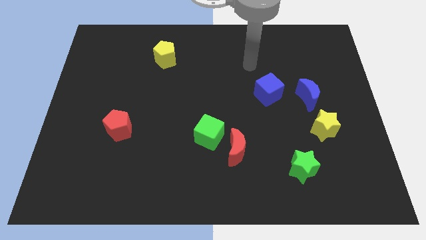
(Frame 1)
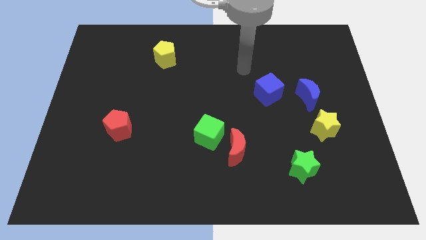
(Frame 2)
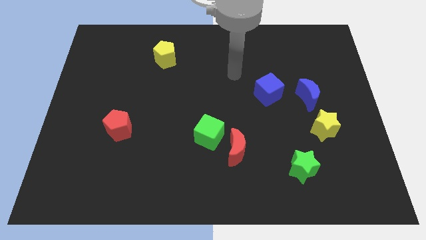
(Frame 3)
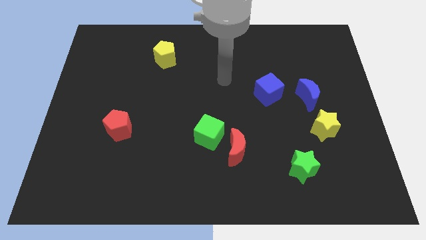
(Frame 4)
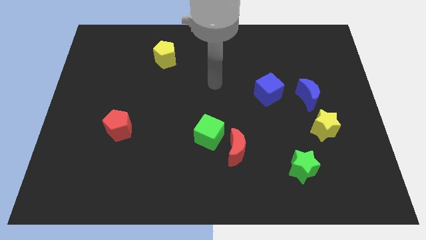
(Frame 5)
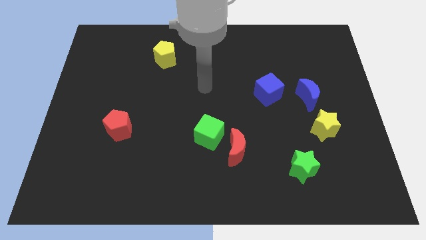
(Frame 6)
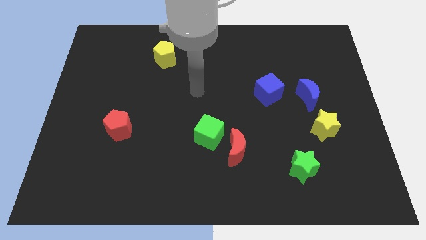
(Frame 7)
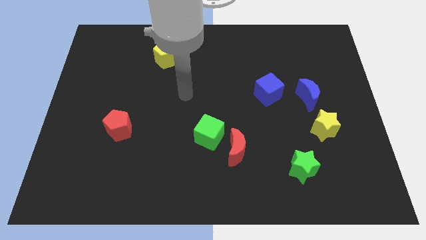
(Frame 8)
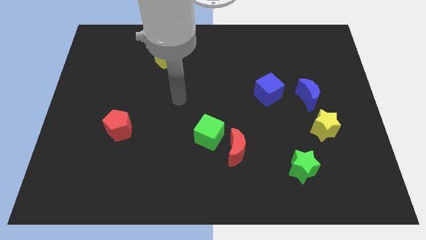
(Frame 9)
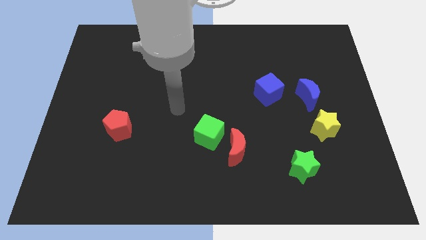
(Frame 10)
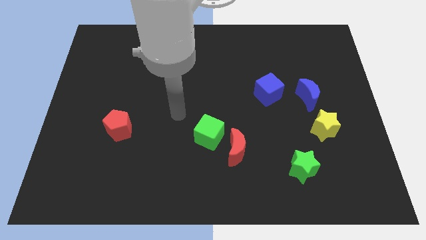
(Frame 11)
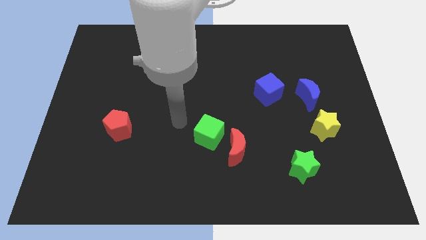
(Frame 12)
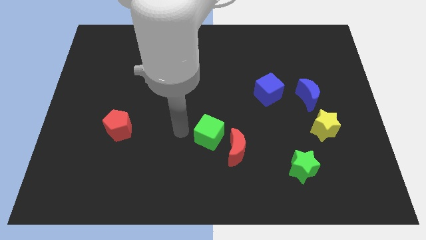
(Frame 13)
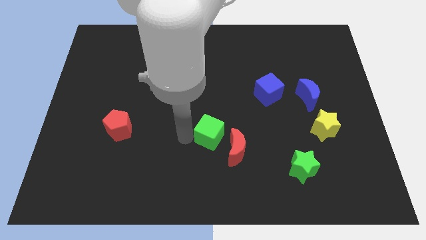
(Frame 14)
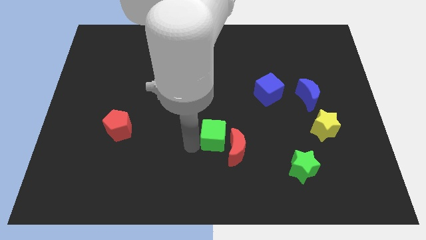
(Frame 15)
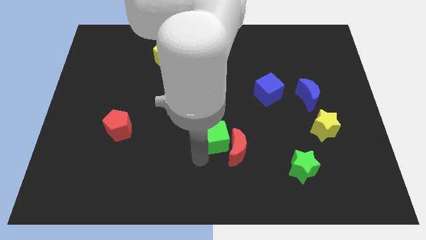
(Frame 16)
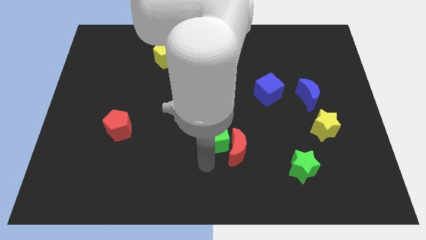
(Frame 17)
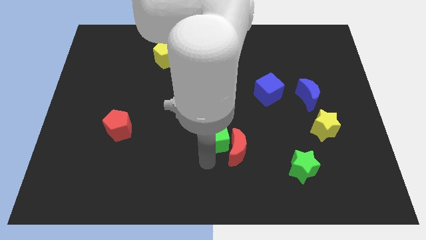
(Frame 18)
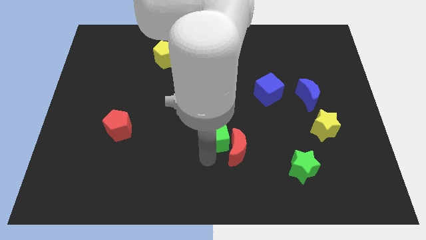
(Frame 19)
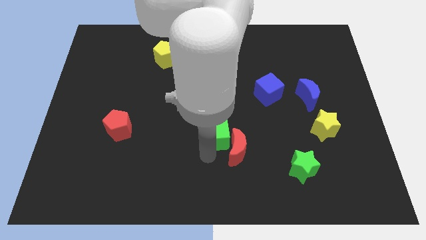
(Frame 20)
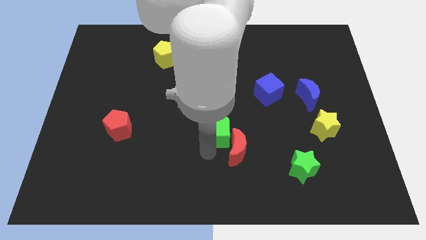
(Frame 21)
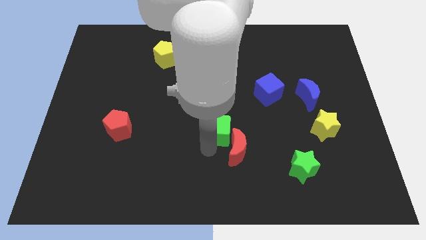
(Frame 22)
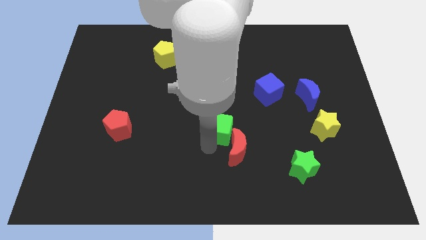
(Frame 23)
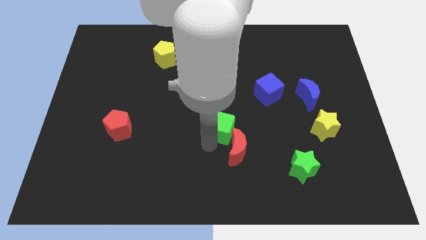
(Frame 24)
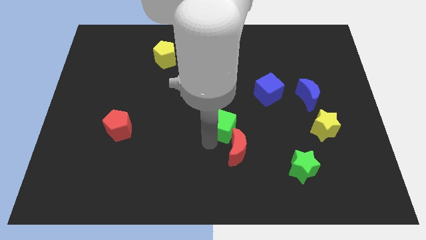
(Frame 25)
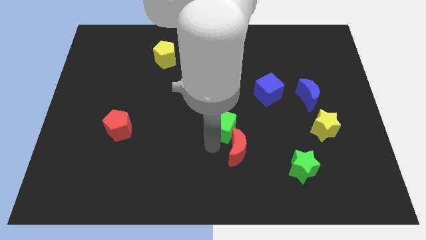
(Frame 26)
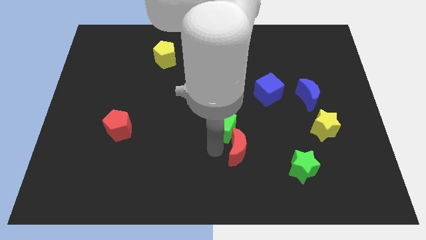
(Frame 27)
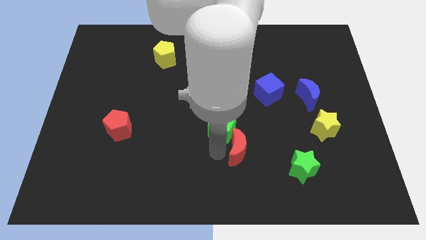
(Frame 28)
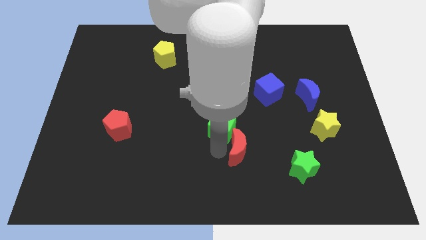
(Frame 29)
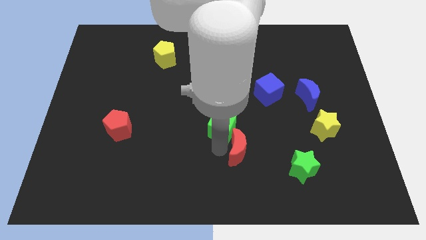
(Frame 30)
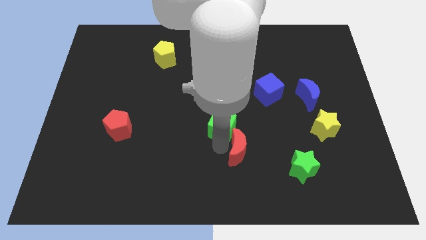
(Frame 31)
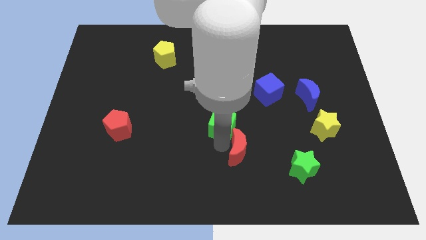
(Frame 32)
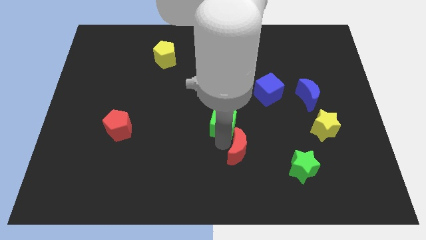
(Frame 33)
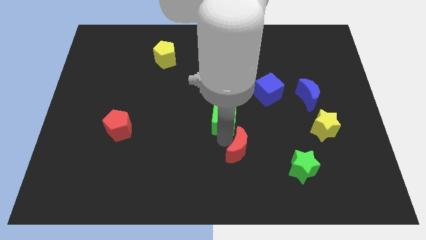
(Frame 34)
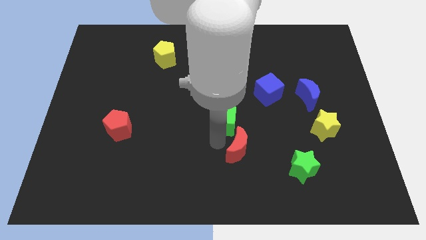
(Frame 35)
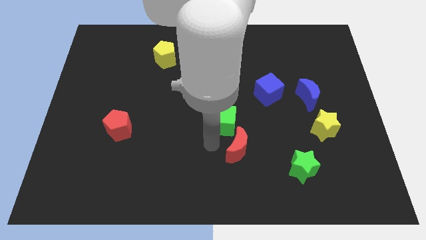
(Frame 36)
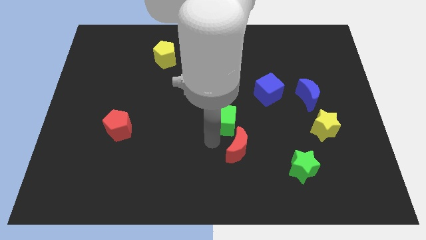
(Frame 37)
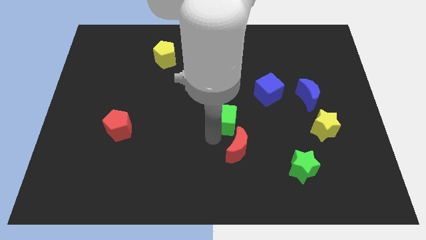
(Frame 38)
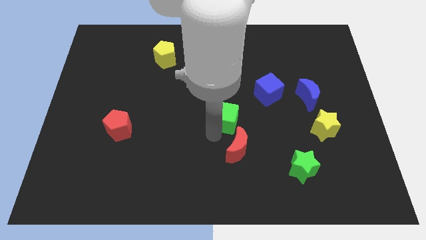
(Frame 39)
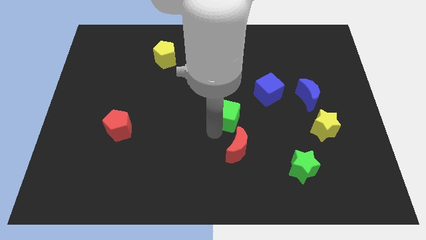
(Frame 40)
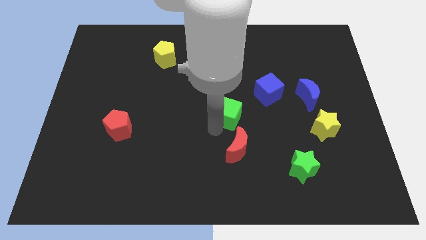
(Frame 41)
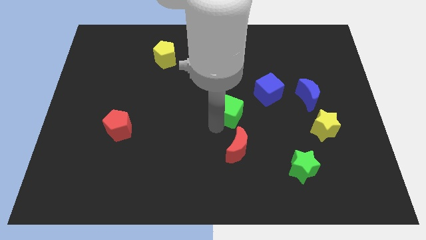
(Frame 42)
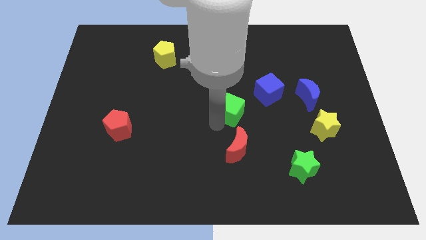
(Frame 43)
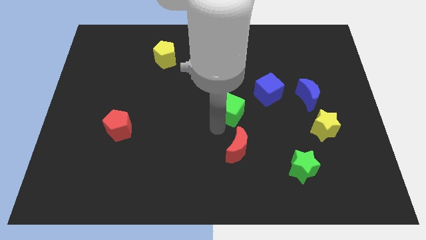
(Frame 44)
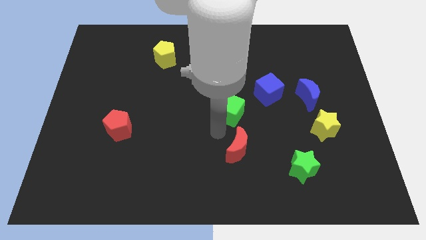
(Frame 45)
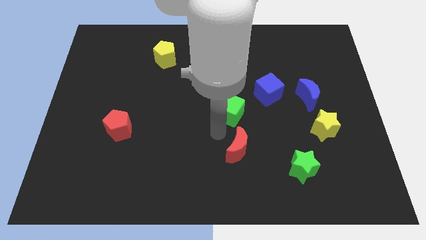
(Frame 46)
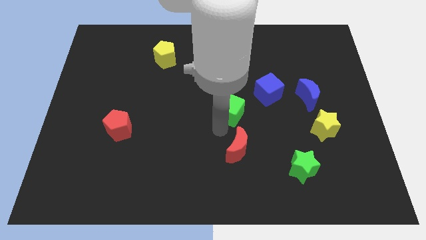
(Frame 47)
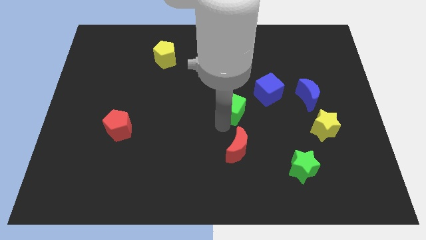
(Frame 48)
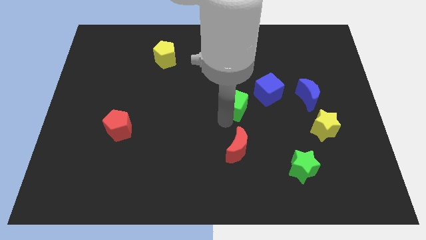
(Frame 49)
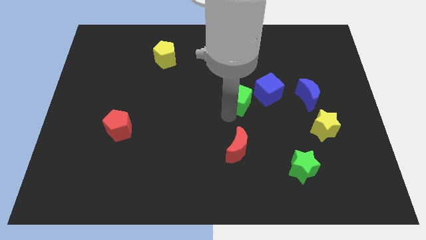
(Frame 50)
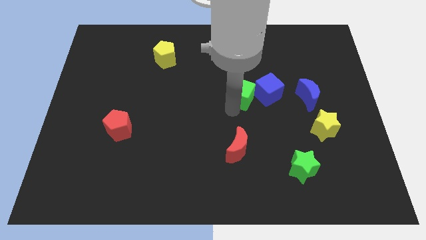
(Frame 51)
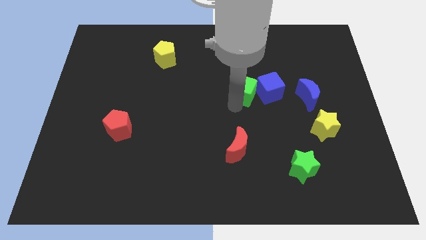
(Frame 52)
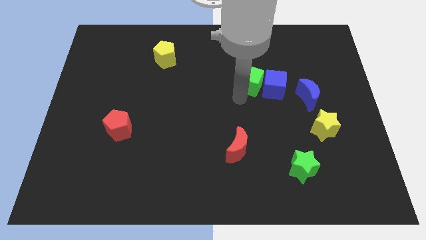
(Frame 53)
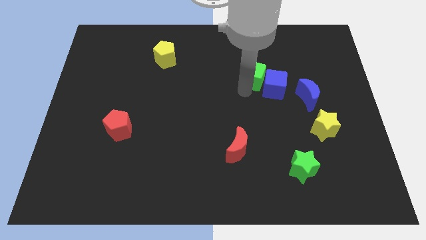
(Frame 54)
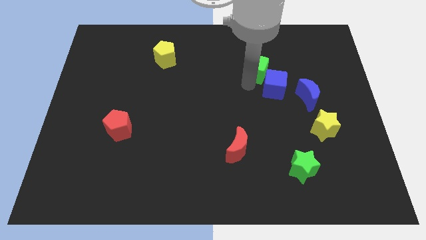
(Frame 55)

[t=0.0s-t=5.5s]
push the green cube above the blue cube

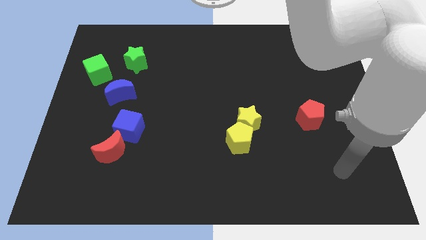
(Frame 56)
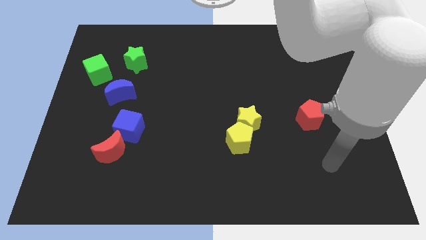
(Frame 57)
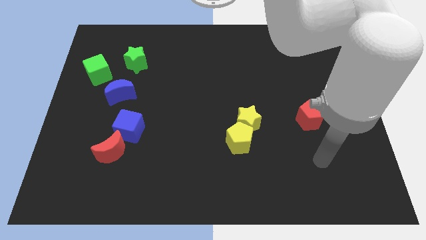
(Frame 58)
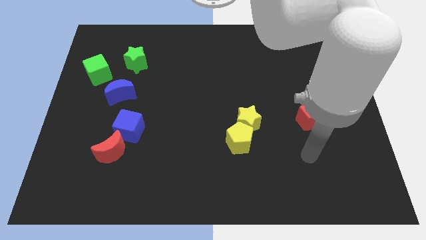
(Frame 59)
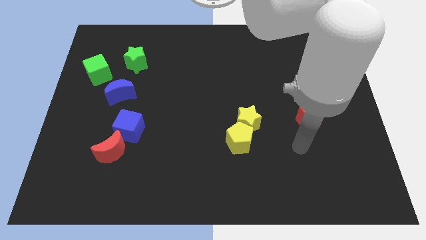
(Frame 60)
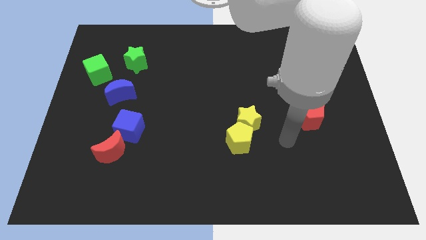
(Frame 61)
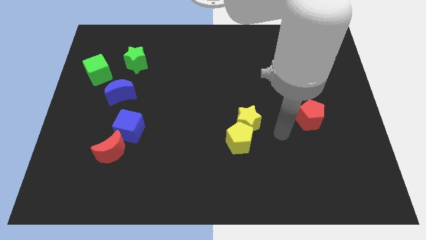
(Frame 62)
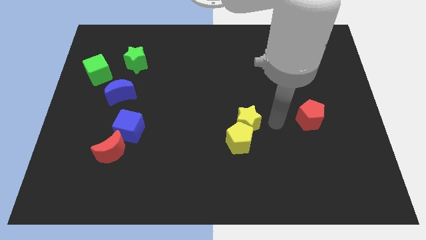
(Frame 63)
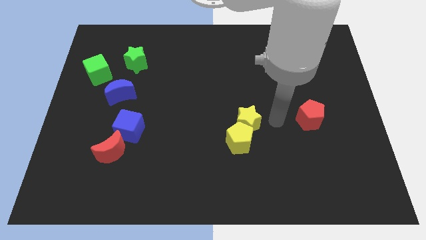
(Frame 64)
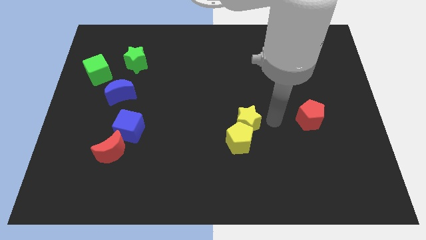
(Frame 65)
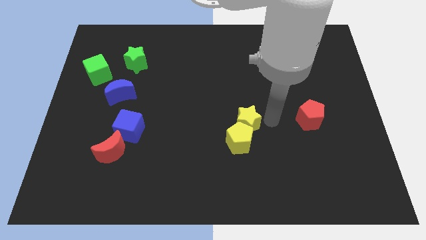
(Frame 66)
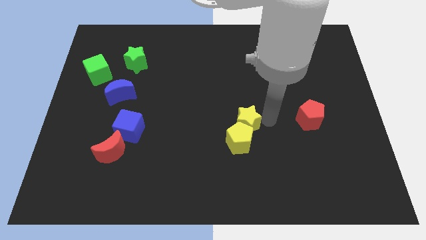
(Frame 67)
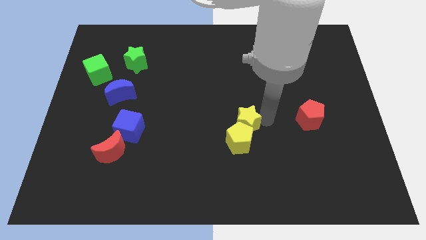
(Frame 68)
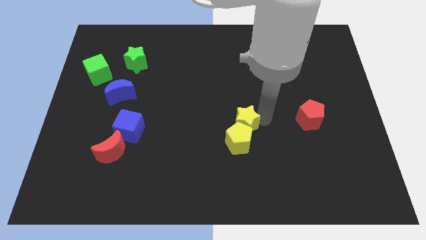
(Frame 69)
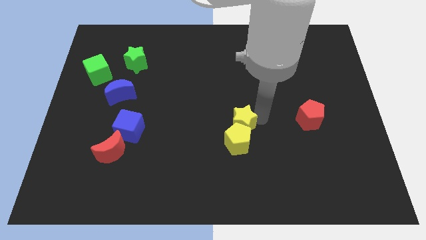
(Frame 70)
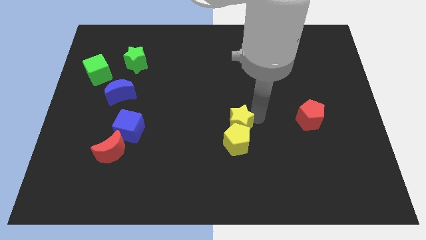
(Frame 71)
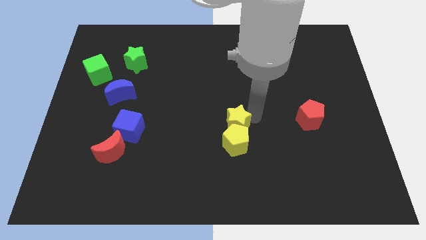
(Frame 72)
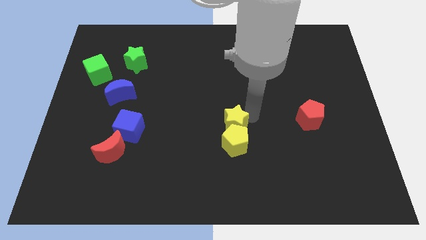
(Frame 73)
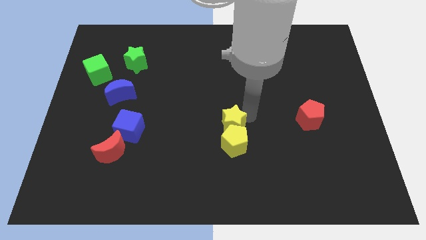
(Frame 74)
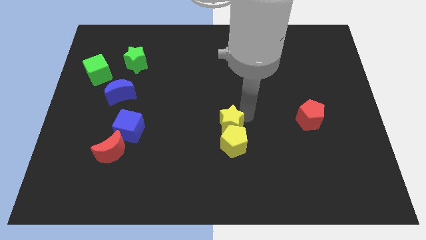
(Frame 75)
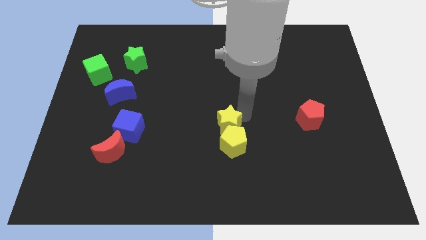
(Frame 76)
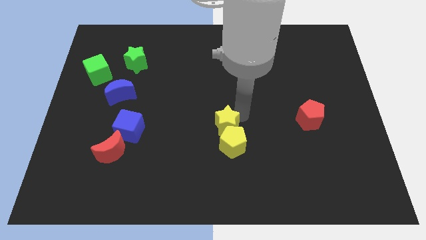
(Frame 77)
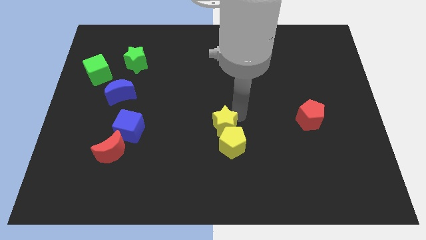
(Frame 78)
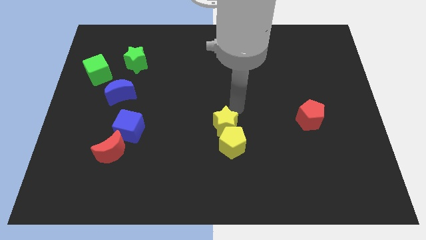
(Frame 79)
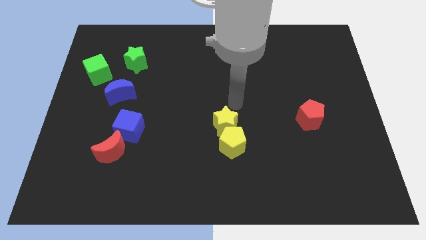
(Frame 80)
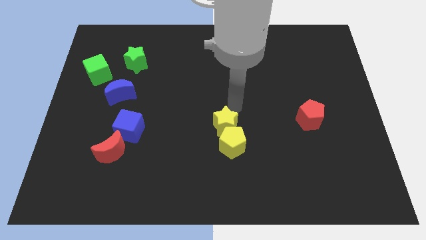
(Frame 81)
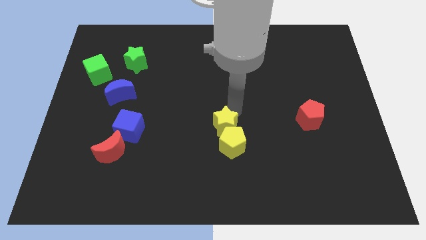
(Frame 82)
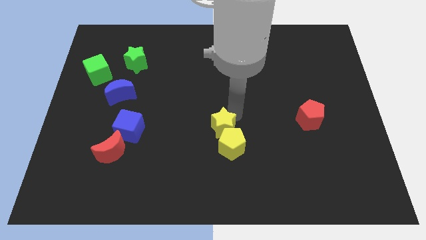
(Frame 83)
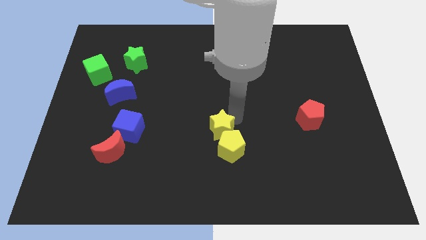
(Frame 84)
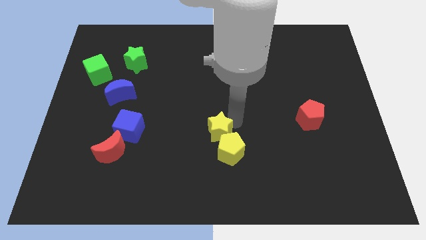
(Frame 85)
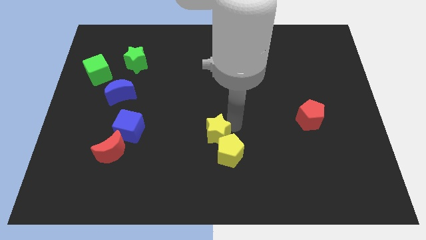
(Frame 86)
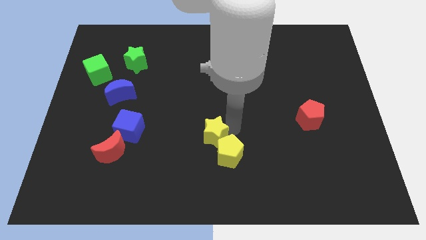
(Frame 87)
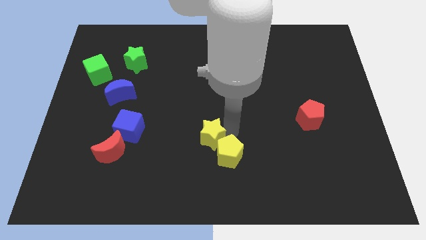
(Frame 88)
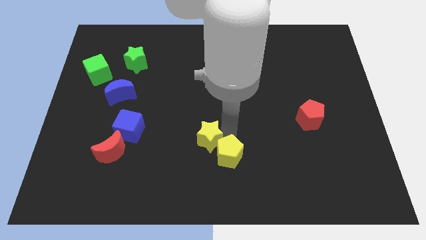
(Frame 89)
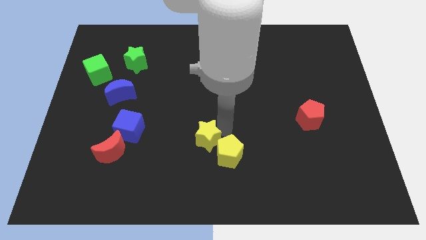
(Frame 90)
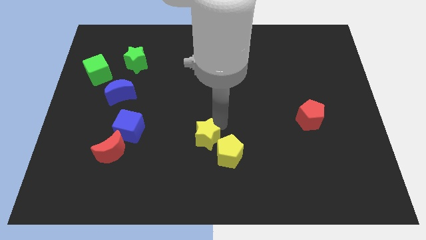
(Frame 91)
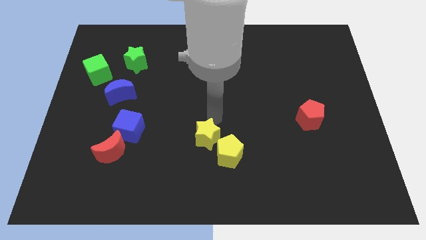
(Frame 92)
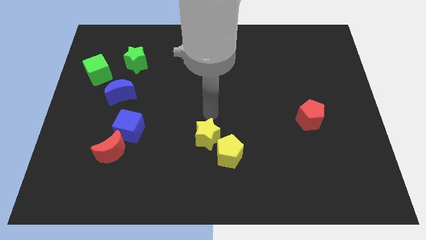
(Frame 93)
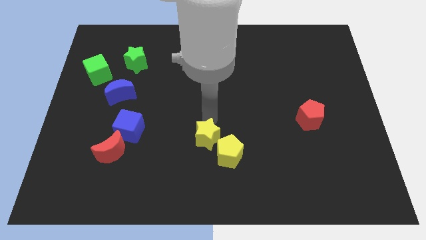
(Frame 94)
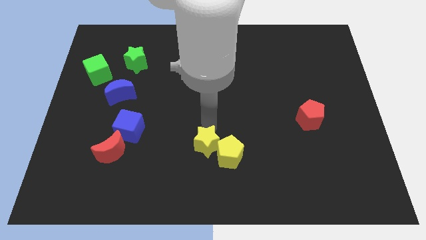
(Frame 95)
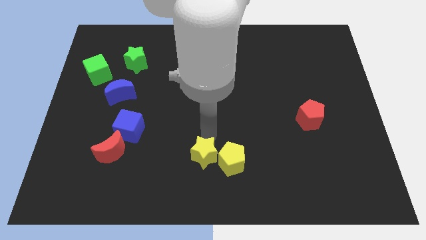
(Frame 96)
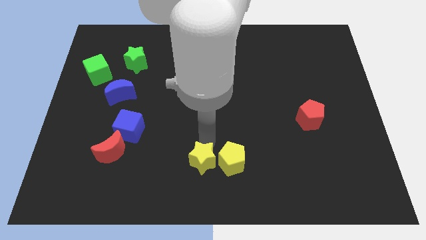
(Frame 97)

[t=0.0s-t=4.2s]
put the yellow star to the bottom left of the yellow pentagon
